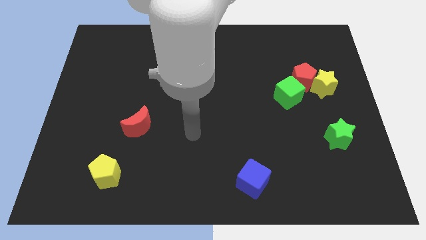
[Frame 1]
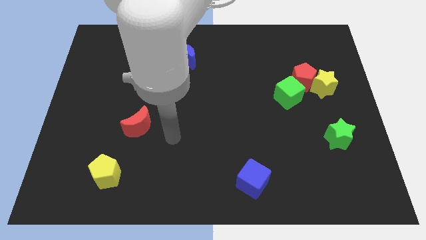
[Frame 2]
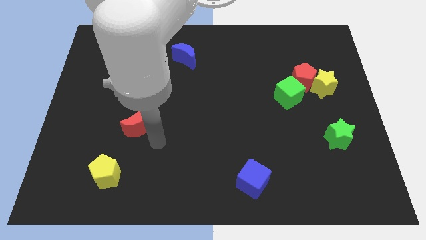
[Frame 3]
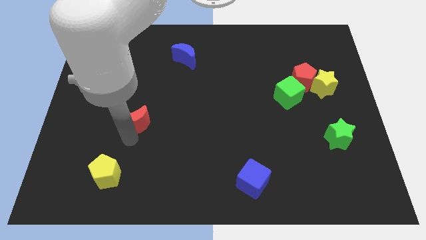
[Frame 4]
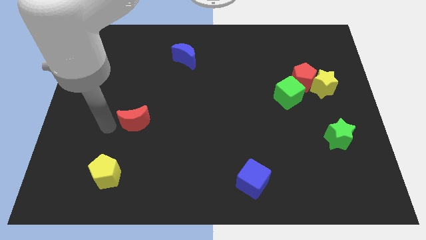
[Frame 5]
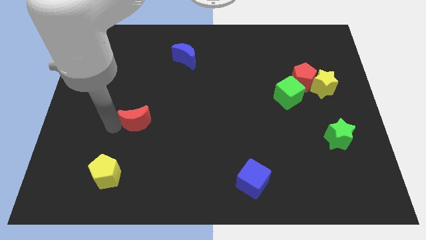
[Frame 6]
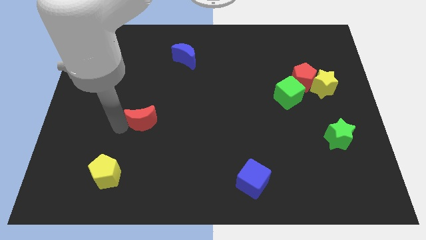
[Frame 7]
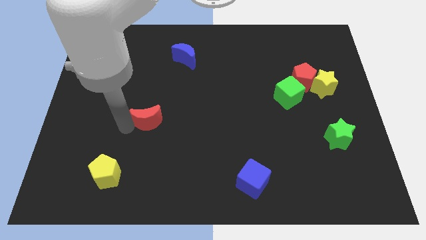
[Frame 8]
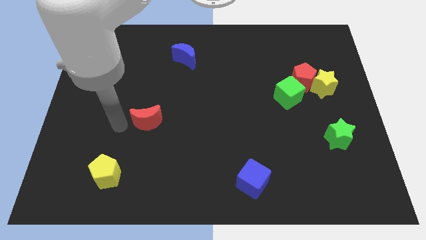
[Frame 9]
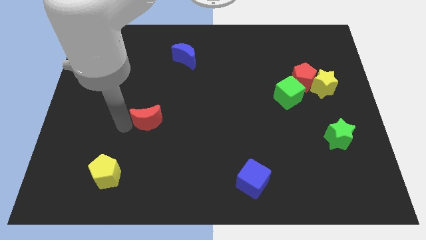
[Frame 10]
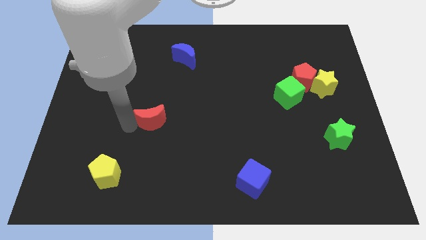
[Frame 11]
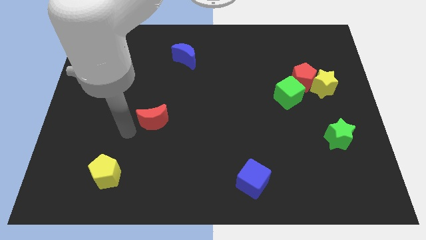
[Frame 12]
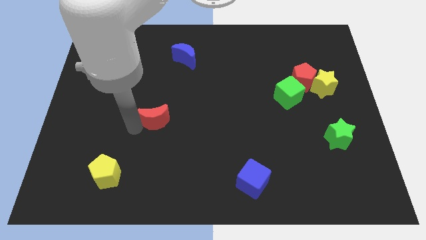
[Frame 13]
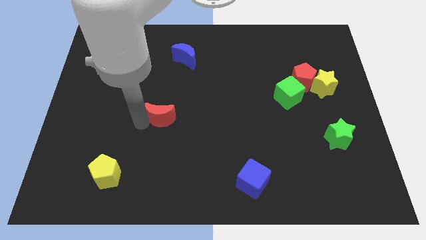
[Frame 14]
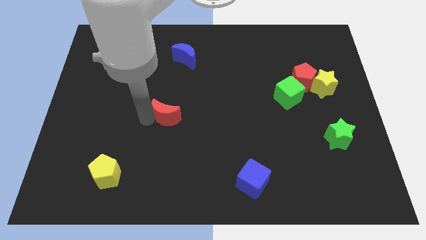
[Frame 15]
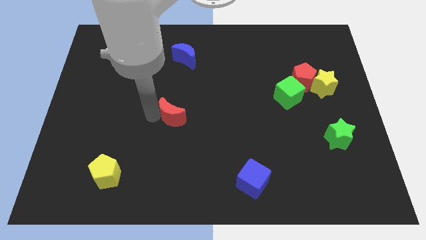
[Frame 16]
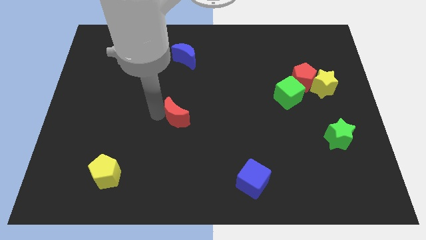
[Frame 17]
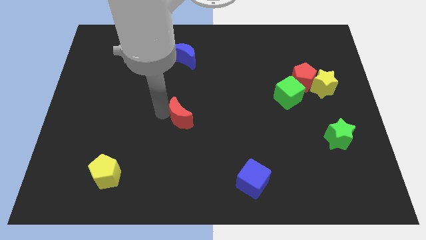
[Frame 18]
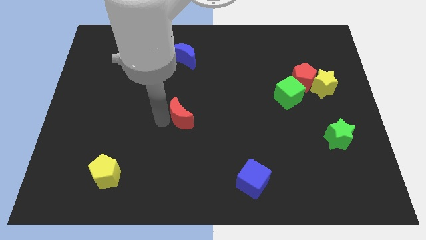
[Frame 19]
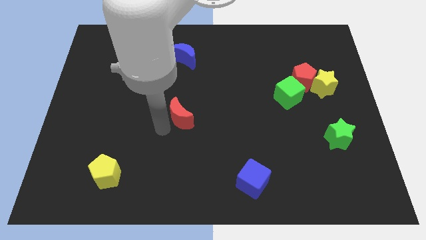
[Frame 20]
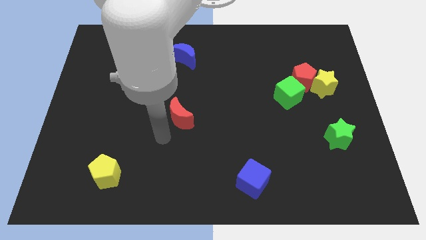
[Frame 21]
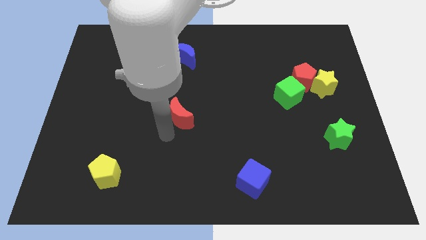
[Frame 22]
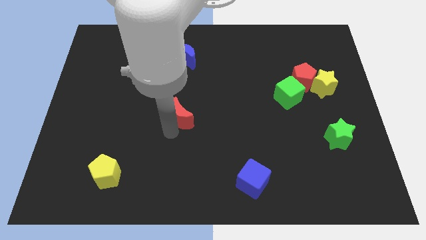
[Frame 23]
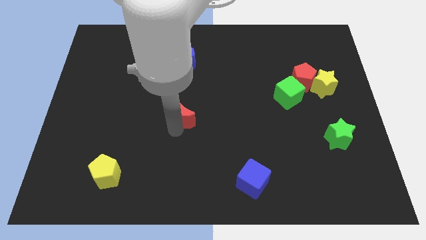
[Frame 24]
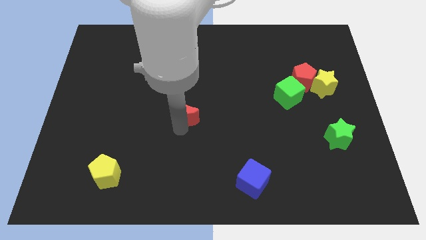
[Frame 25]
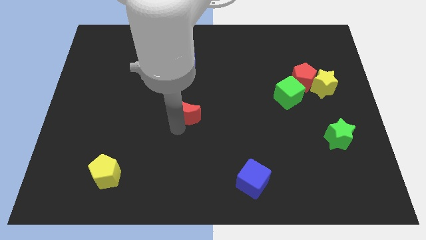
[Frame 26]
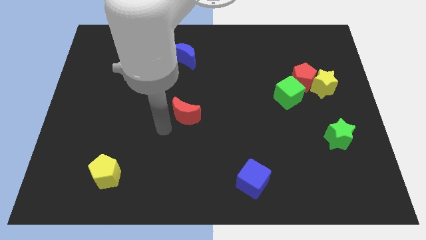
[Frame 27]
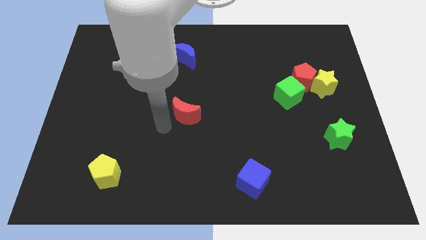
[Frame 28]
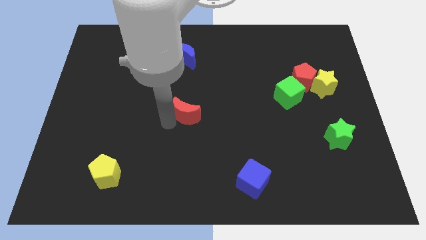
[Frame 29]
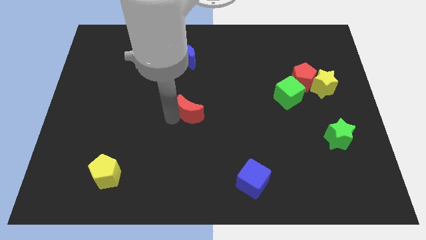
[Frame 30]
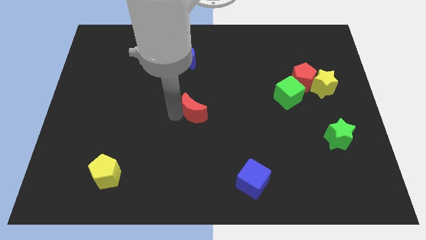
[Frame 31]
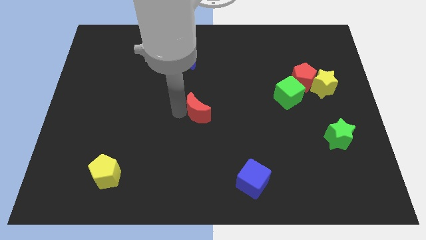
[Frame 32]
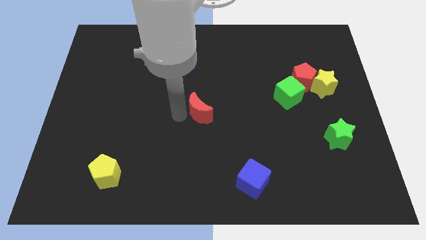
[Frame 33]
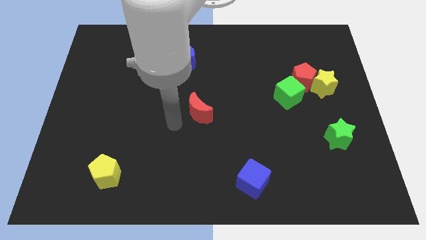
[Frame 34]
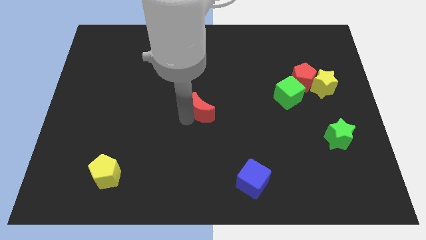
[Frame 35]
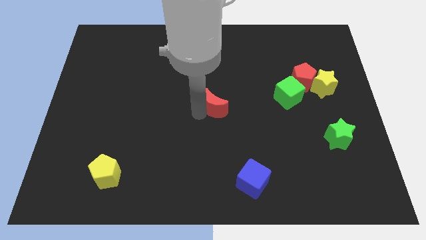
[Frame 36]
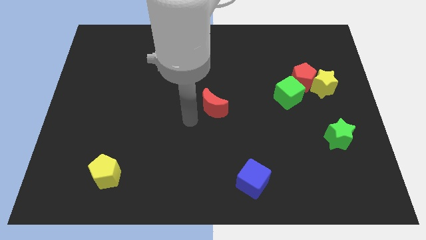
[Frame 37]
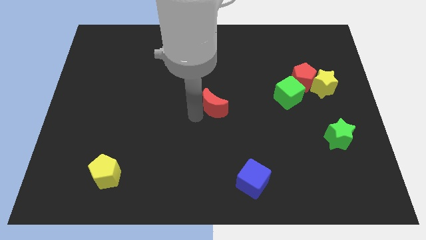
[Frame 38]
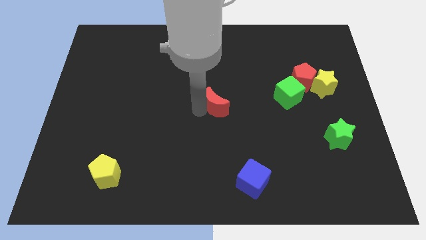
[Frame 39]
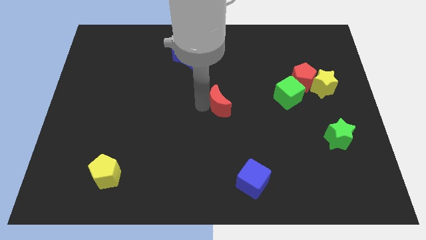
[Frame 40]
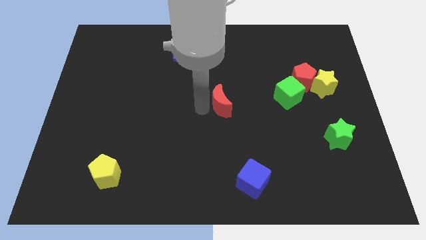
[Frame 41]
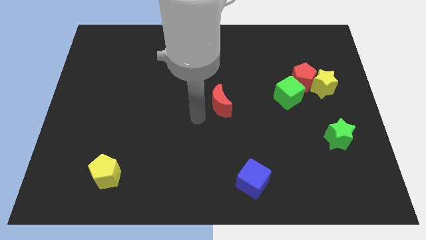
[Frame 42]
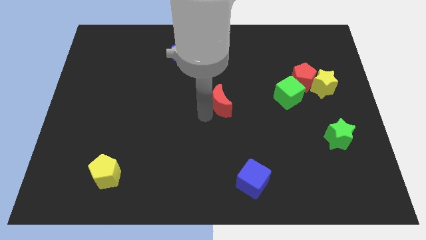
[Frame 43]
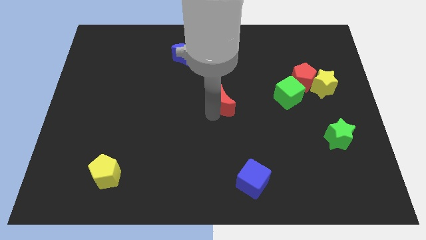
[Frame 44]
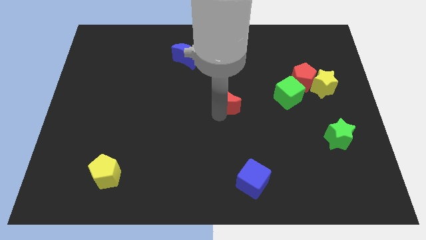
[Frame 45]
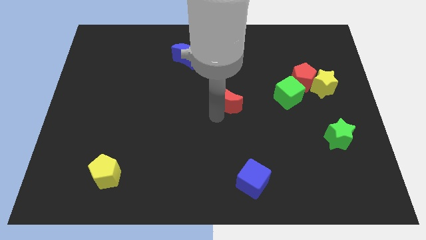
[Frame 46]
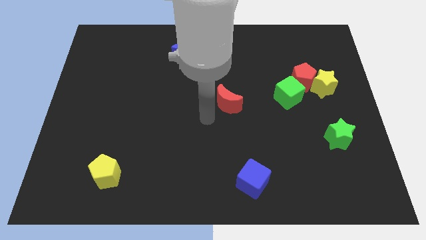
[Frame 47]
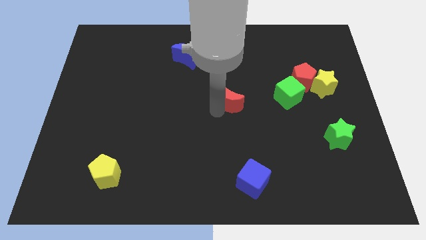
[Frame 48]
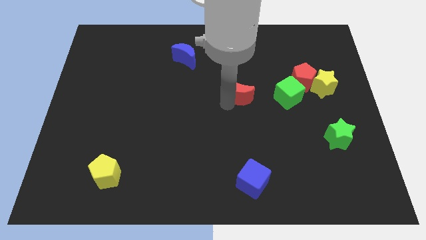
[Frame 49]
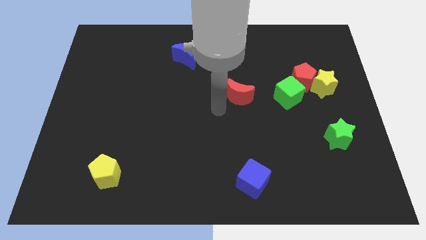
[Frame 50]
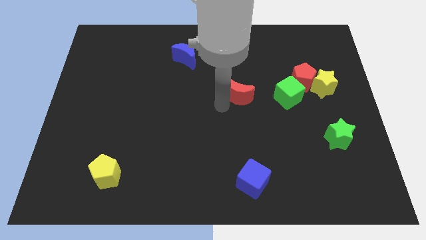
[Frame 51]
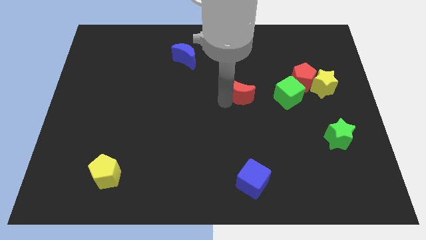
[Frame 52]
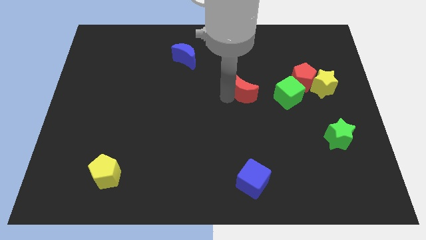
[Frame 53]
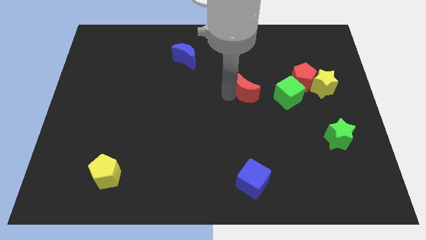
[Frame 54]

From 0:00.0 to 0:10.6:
slide the red moon to the left side of the red pentagon

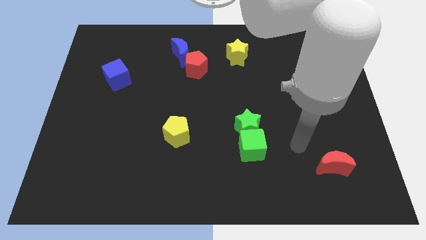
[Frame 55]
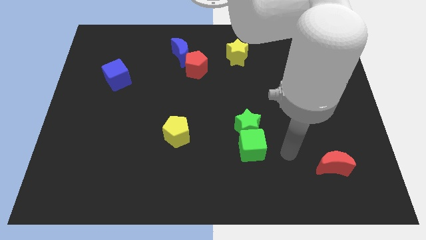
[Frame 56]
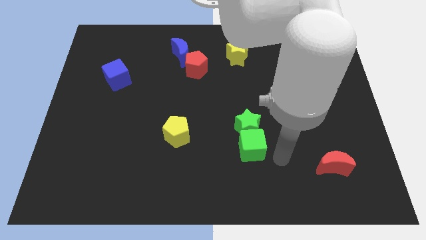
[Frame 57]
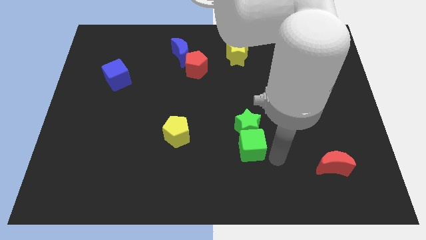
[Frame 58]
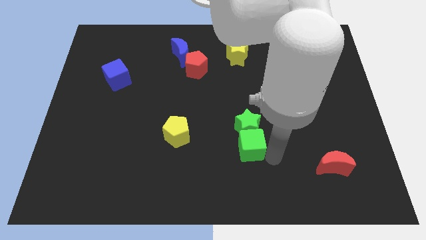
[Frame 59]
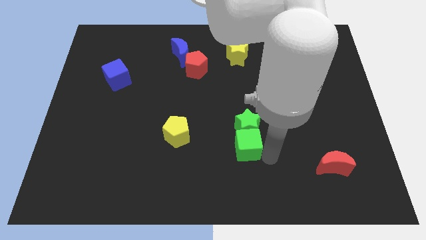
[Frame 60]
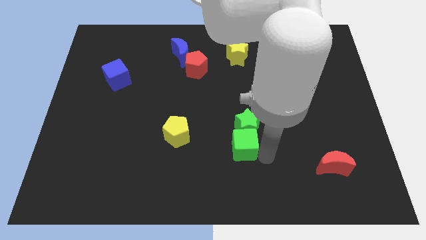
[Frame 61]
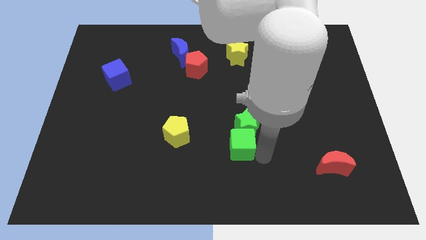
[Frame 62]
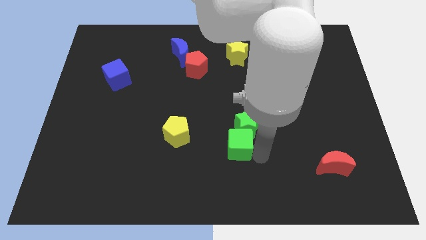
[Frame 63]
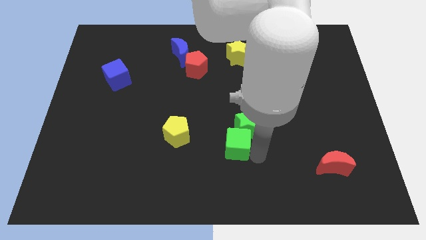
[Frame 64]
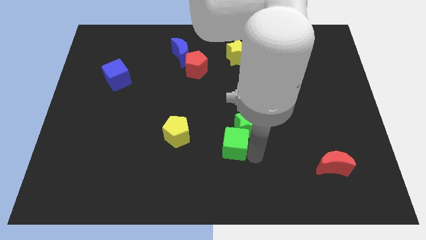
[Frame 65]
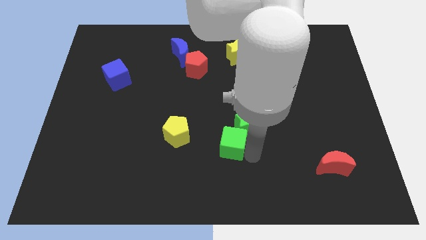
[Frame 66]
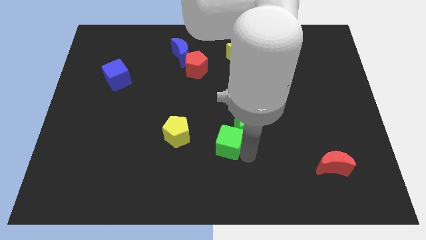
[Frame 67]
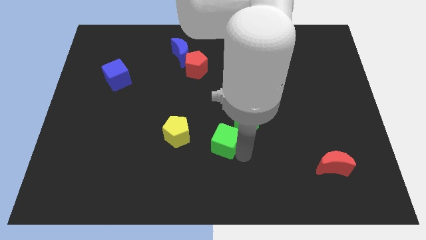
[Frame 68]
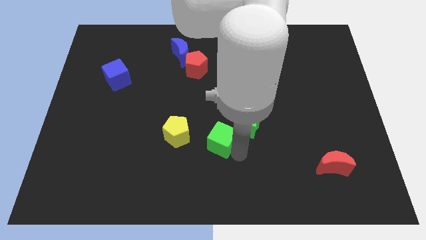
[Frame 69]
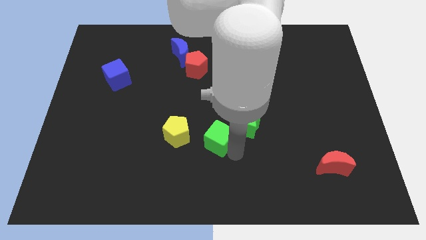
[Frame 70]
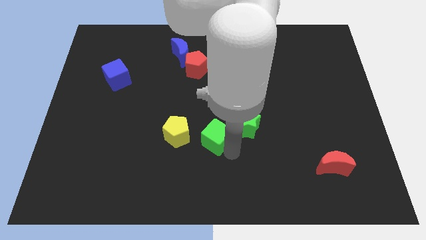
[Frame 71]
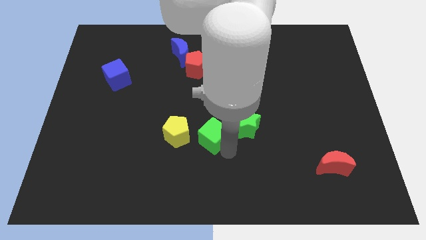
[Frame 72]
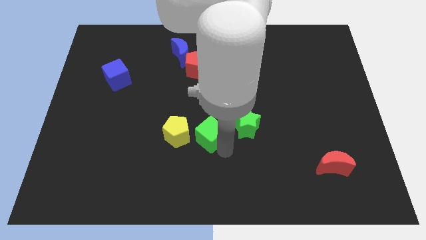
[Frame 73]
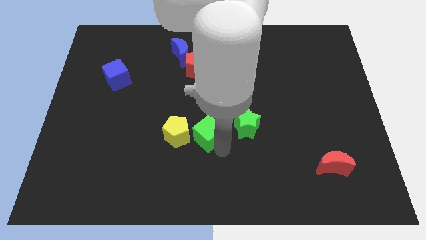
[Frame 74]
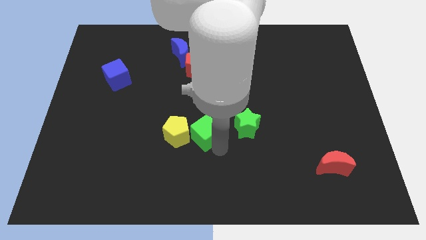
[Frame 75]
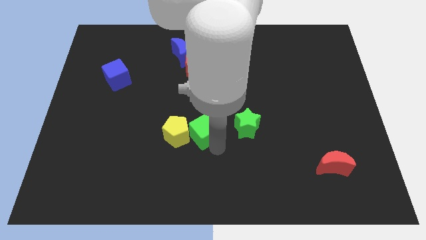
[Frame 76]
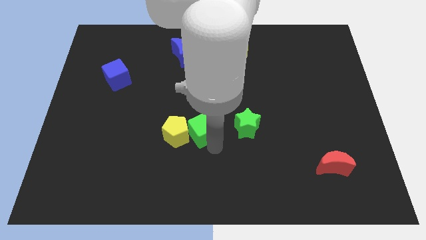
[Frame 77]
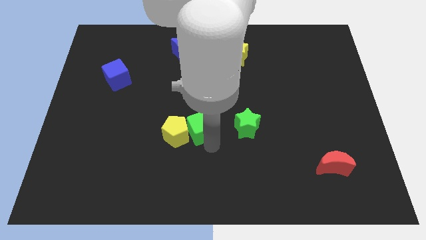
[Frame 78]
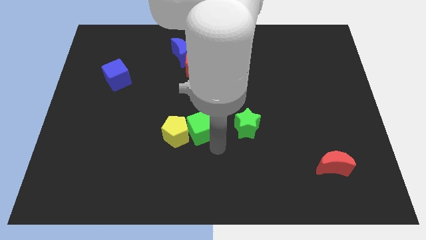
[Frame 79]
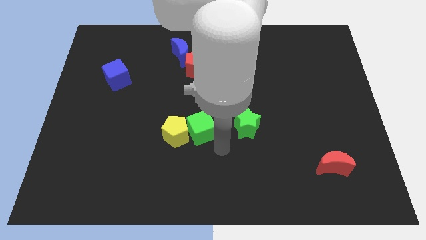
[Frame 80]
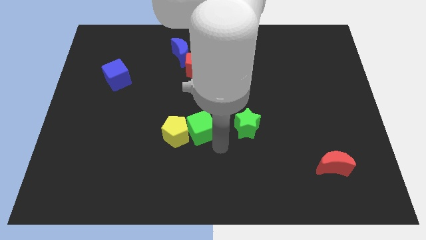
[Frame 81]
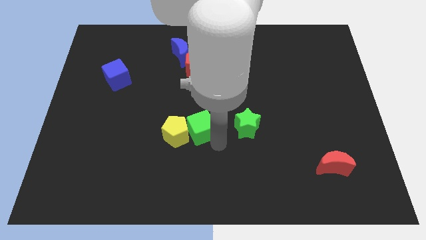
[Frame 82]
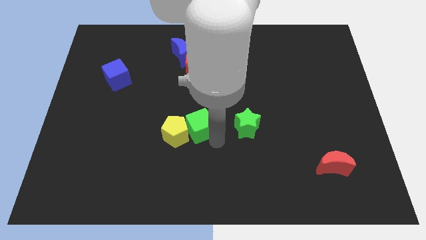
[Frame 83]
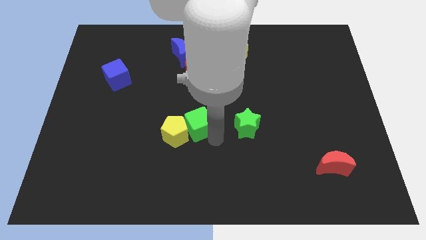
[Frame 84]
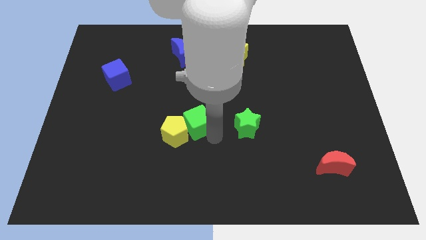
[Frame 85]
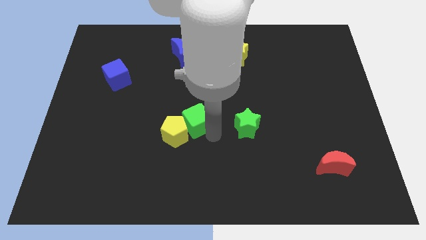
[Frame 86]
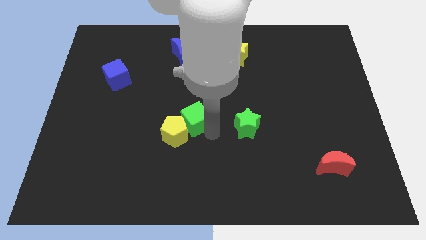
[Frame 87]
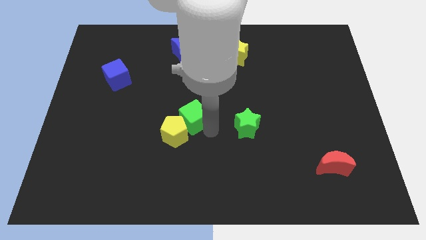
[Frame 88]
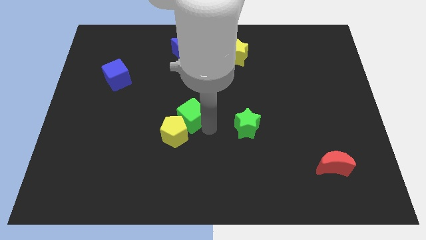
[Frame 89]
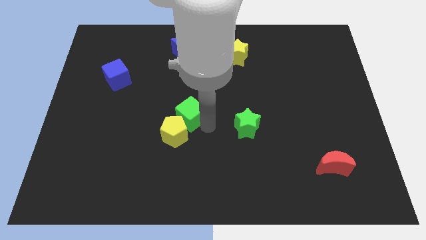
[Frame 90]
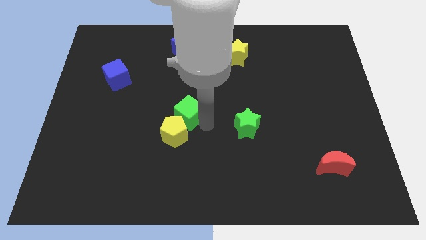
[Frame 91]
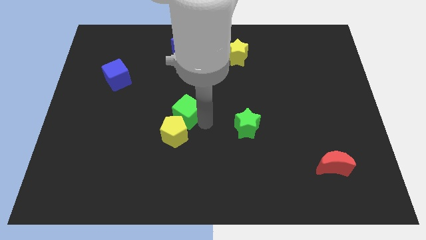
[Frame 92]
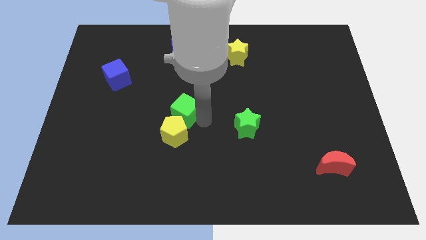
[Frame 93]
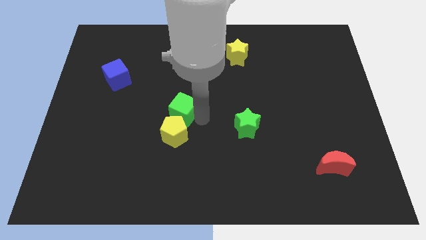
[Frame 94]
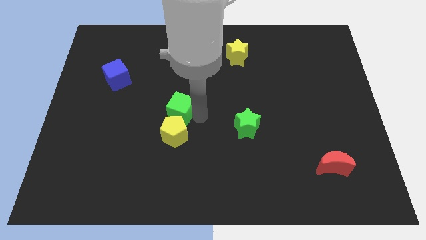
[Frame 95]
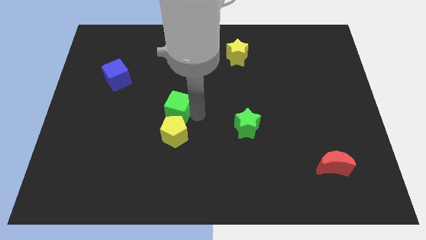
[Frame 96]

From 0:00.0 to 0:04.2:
push the green cube diagonally up and to the left of the yellow pentagon
